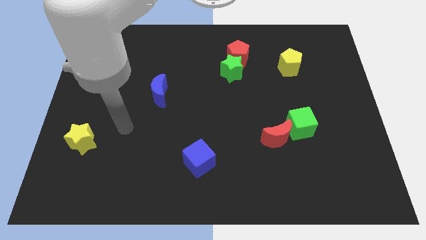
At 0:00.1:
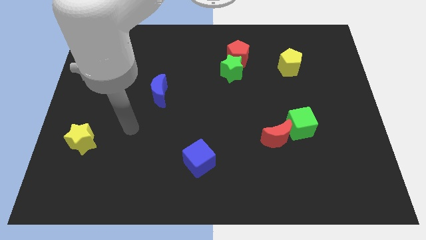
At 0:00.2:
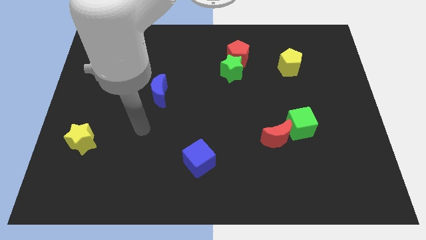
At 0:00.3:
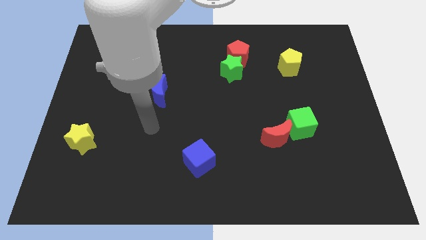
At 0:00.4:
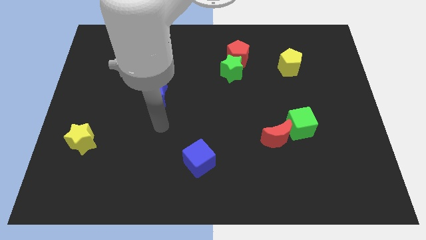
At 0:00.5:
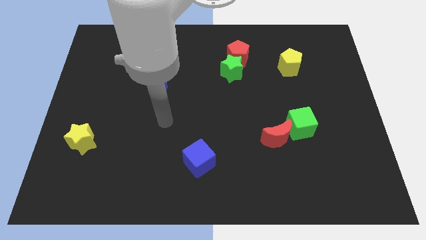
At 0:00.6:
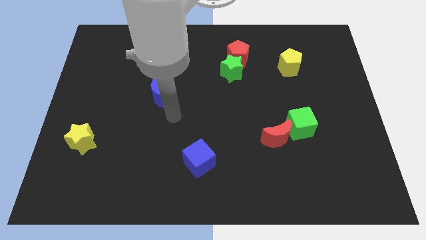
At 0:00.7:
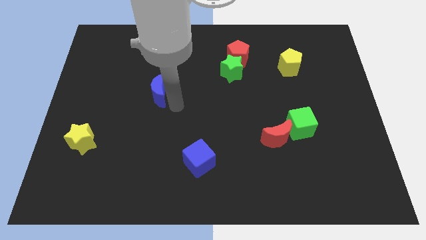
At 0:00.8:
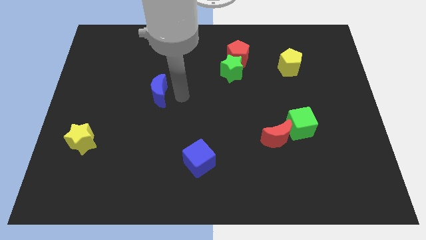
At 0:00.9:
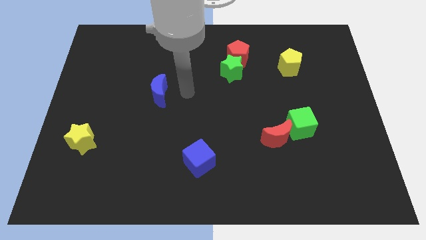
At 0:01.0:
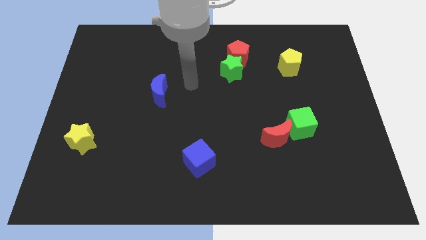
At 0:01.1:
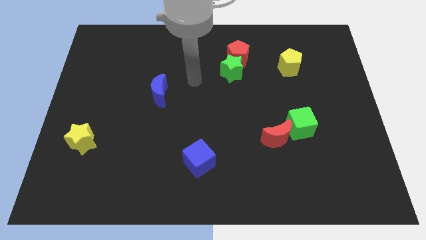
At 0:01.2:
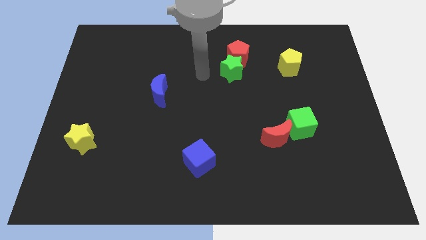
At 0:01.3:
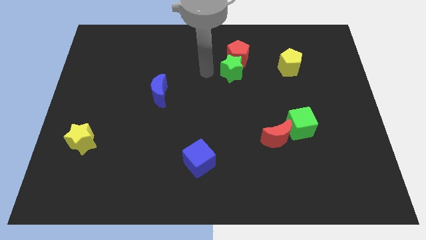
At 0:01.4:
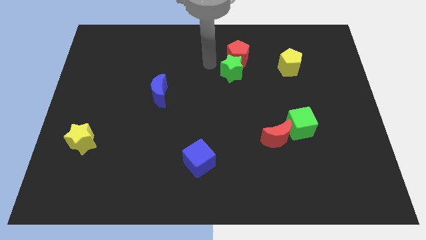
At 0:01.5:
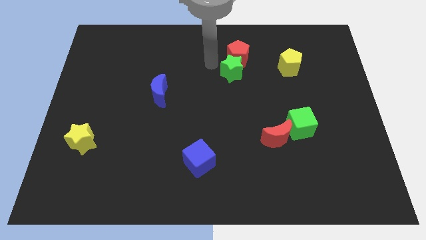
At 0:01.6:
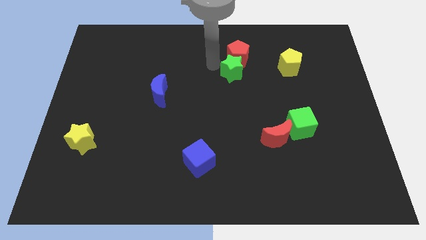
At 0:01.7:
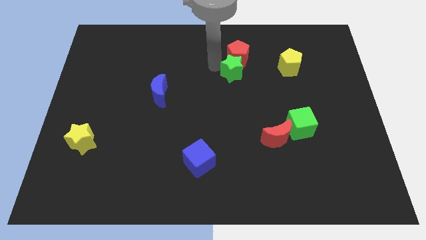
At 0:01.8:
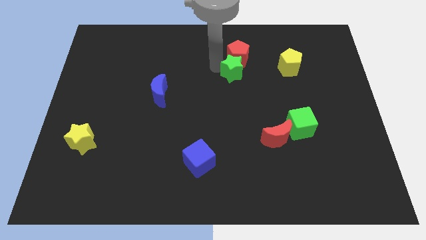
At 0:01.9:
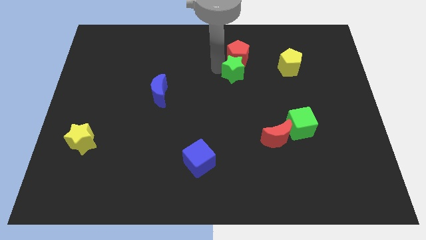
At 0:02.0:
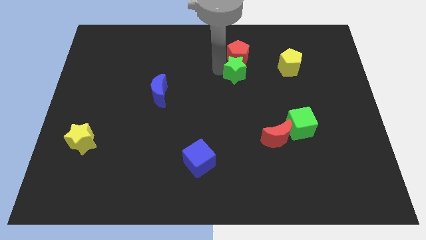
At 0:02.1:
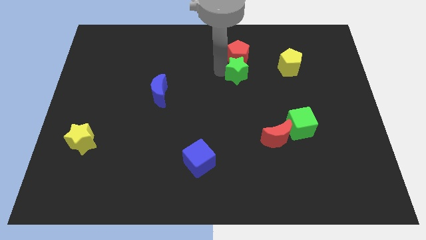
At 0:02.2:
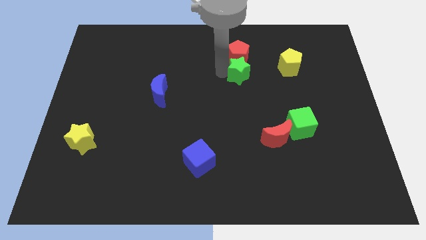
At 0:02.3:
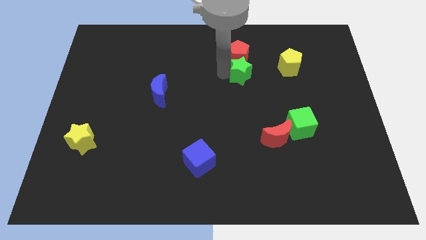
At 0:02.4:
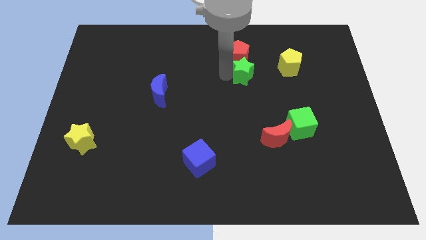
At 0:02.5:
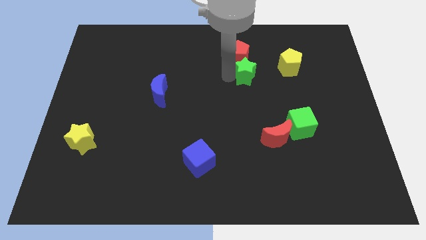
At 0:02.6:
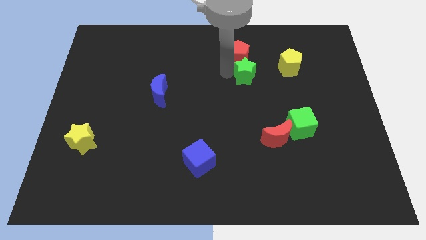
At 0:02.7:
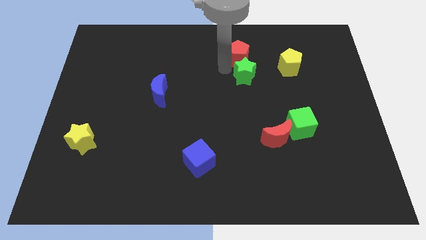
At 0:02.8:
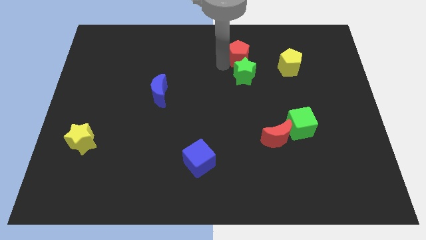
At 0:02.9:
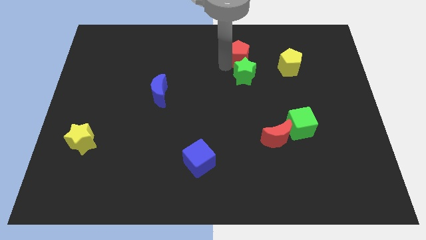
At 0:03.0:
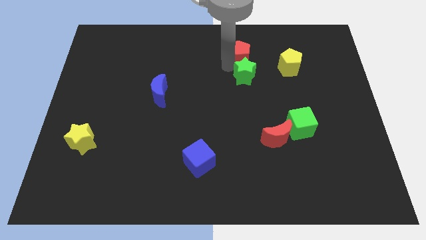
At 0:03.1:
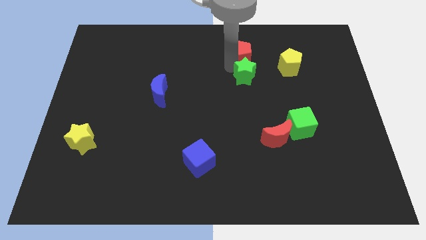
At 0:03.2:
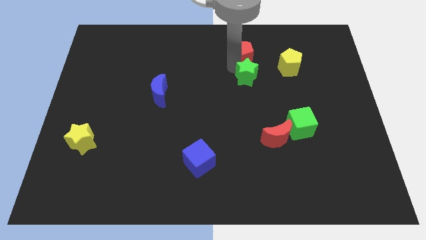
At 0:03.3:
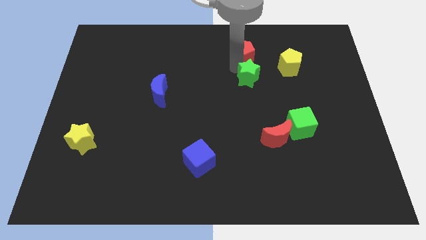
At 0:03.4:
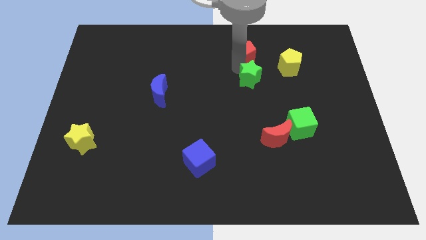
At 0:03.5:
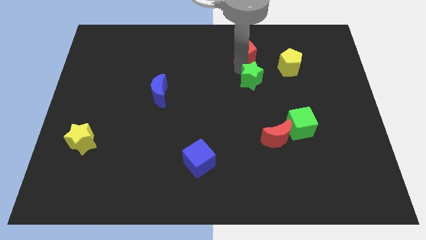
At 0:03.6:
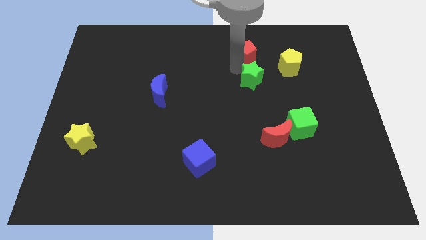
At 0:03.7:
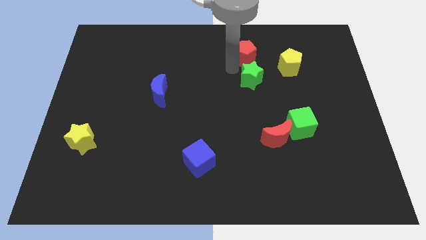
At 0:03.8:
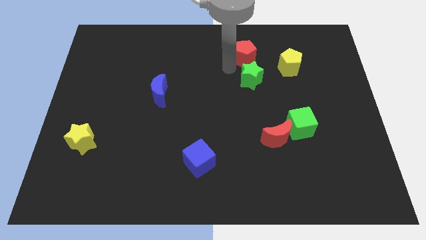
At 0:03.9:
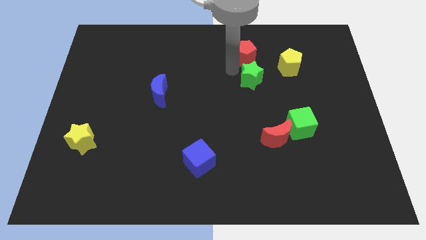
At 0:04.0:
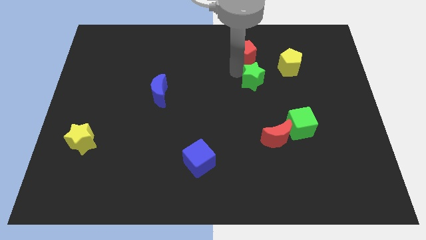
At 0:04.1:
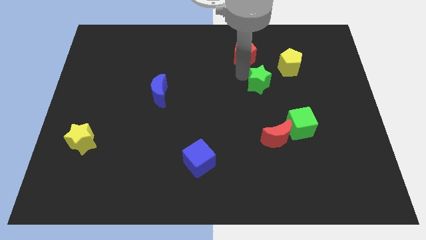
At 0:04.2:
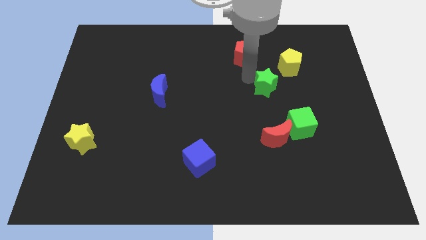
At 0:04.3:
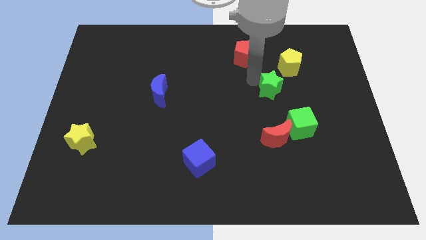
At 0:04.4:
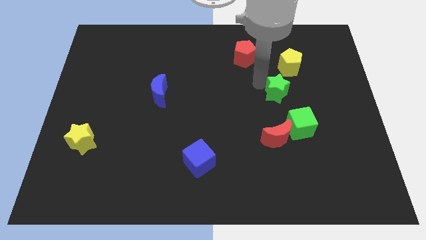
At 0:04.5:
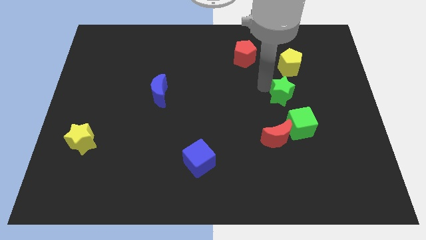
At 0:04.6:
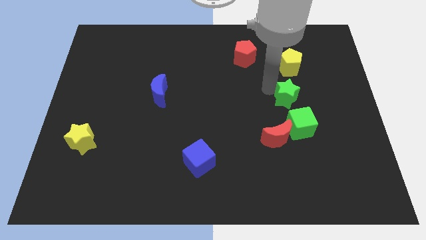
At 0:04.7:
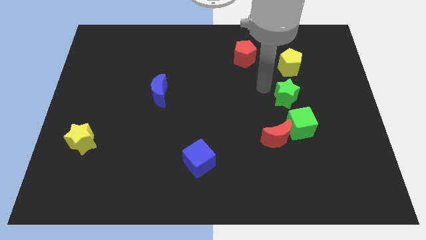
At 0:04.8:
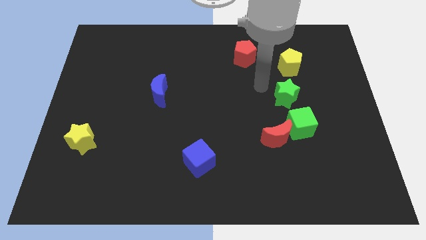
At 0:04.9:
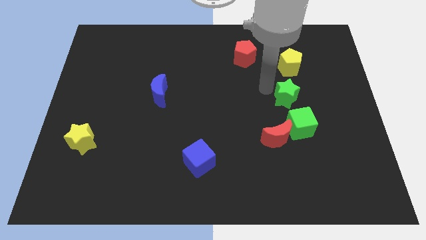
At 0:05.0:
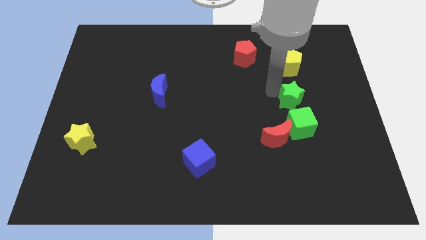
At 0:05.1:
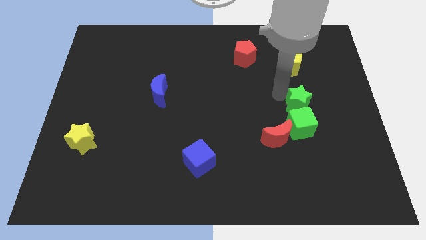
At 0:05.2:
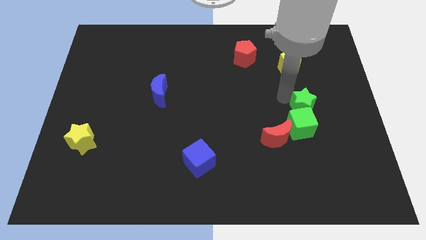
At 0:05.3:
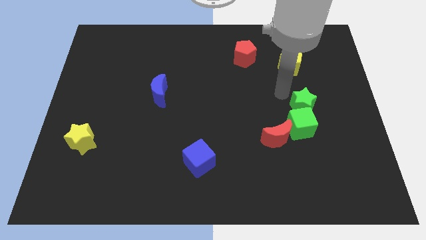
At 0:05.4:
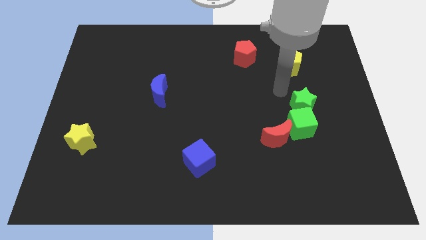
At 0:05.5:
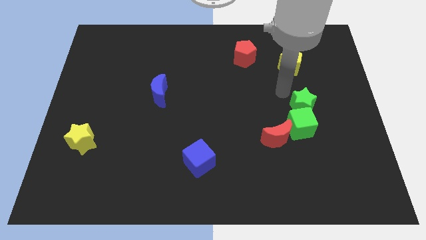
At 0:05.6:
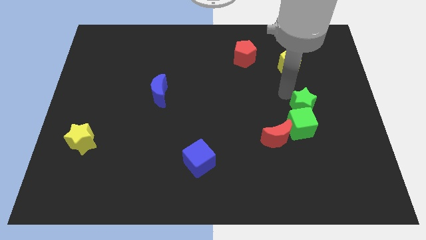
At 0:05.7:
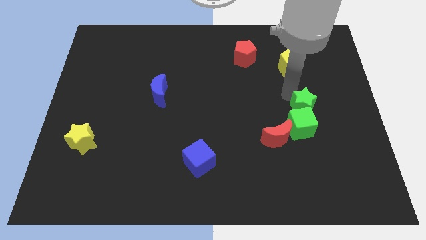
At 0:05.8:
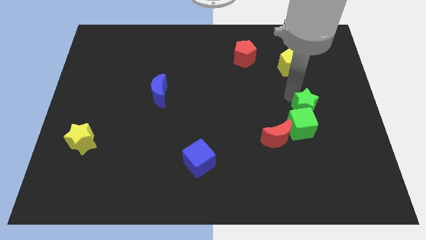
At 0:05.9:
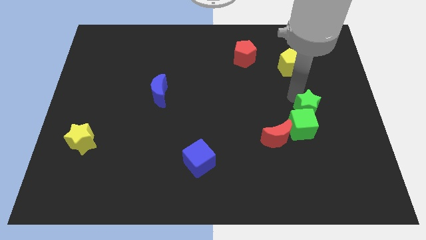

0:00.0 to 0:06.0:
push the green star downwards and to the right

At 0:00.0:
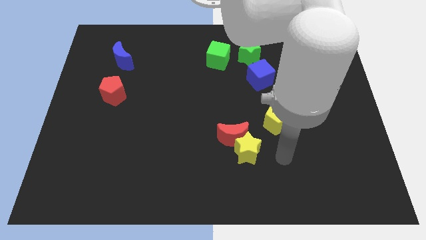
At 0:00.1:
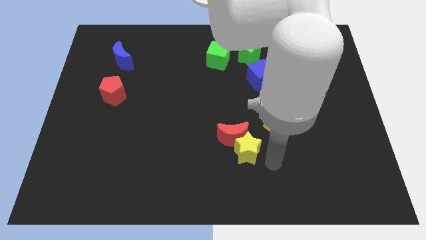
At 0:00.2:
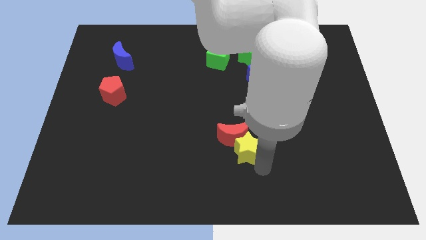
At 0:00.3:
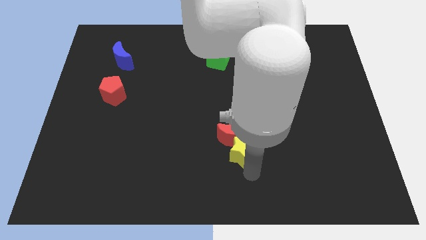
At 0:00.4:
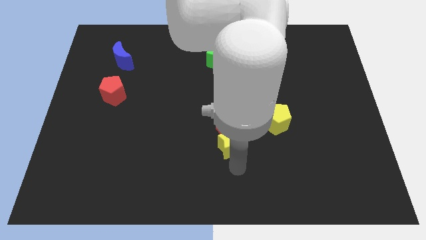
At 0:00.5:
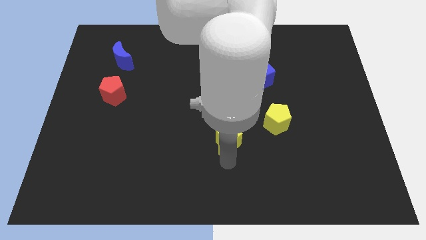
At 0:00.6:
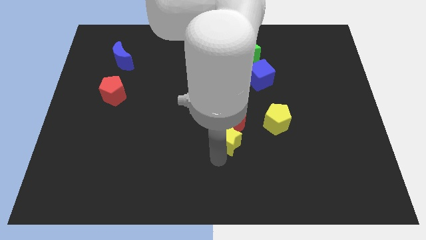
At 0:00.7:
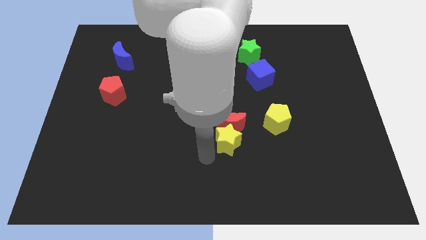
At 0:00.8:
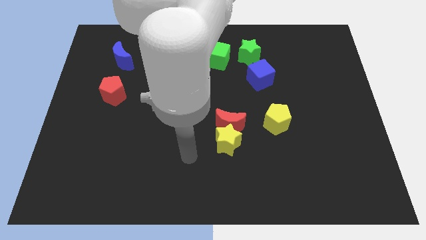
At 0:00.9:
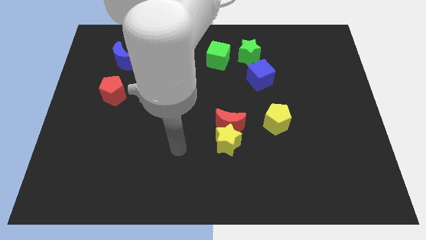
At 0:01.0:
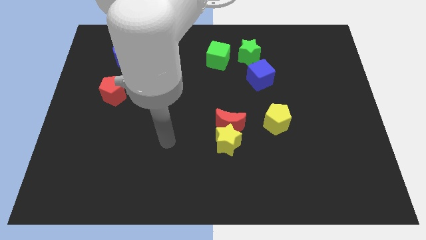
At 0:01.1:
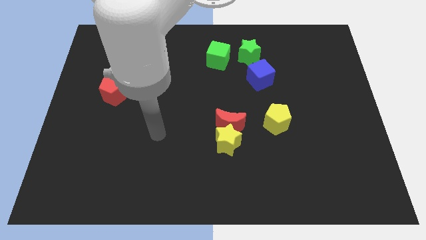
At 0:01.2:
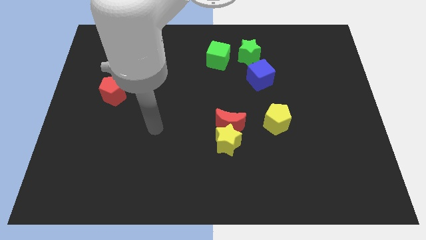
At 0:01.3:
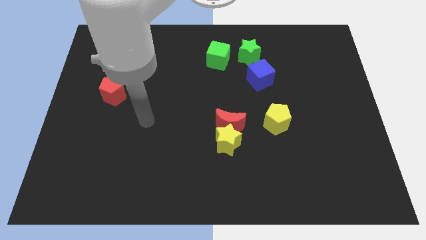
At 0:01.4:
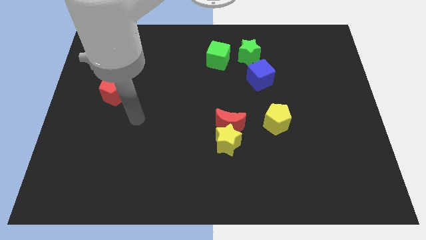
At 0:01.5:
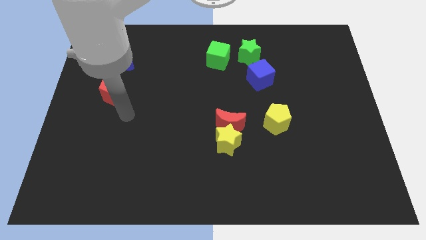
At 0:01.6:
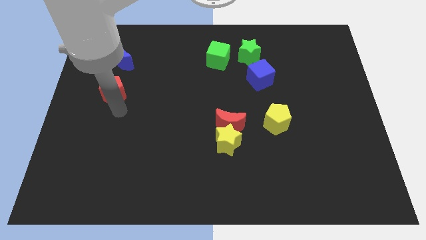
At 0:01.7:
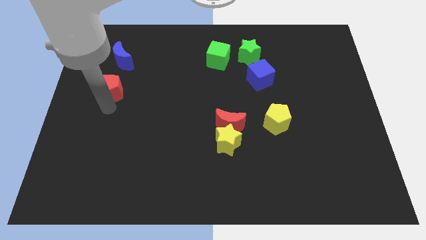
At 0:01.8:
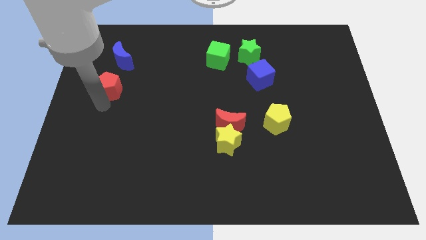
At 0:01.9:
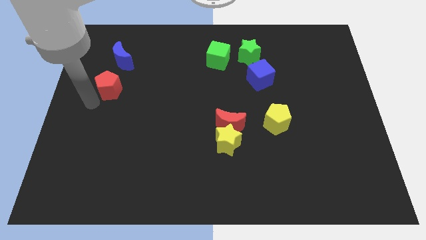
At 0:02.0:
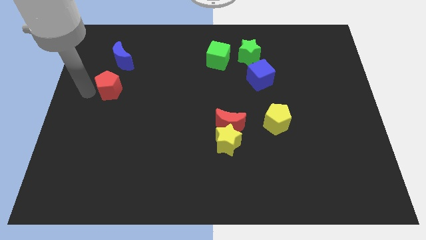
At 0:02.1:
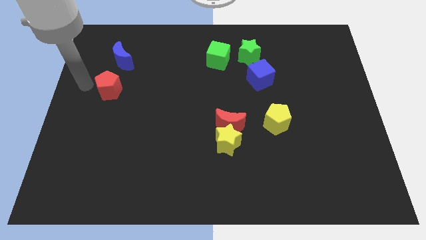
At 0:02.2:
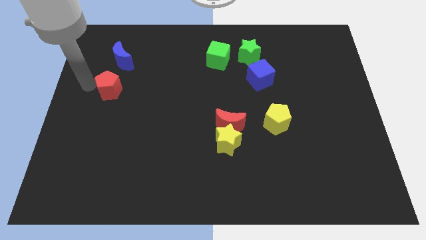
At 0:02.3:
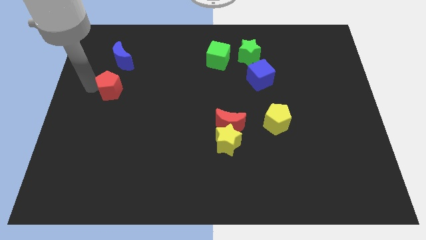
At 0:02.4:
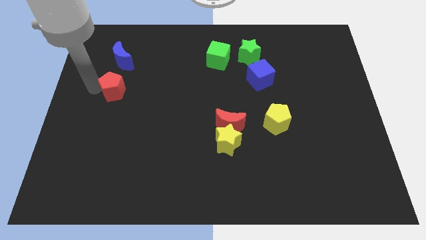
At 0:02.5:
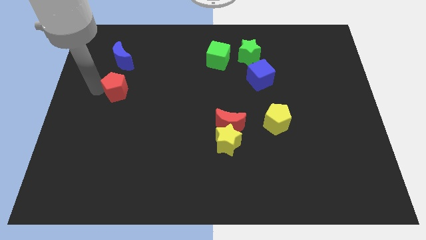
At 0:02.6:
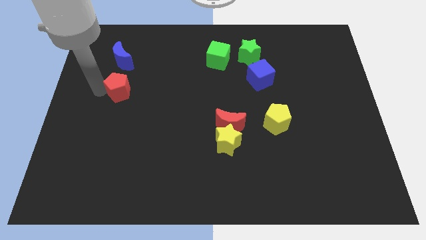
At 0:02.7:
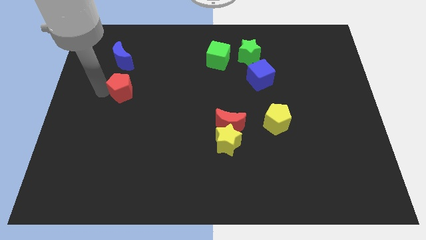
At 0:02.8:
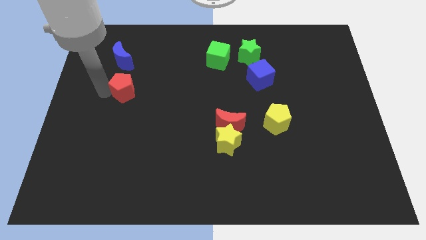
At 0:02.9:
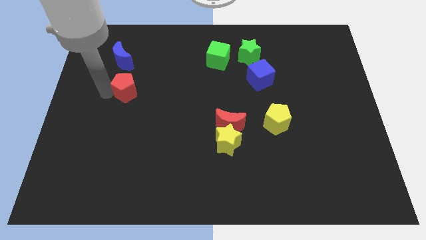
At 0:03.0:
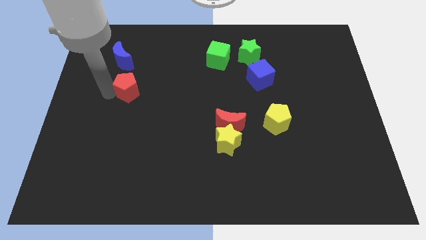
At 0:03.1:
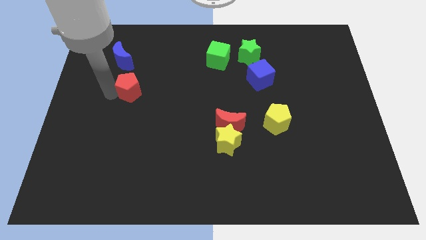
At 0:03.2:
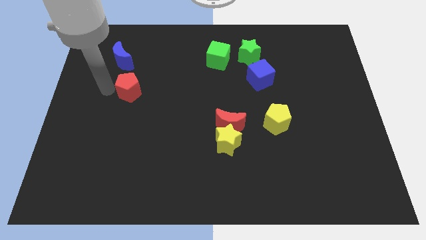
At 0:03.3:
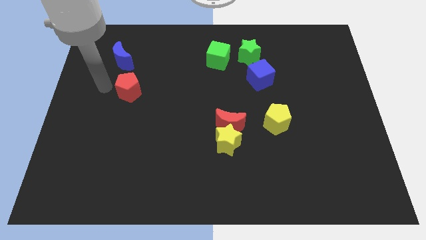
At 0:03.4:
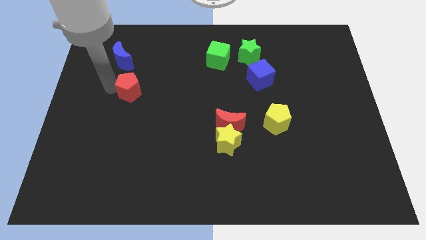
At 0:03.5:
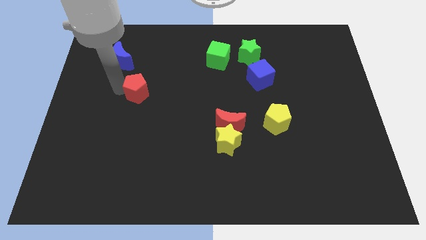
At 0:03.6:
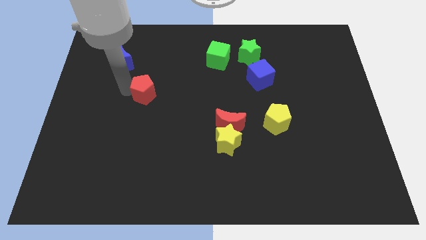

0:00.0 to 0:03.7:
slide the red pentagon a little bit to the right
